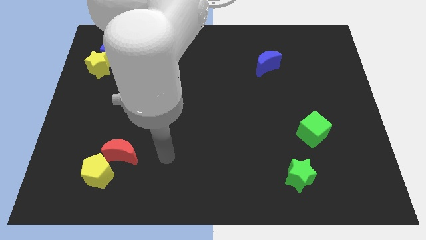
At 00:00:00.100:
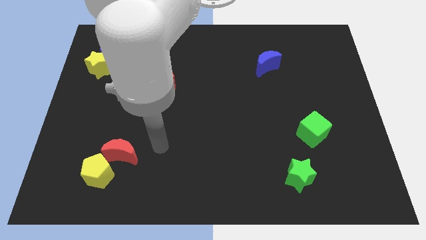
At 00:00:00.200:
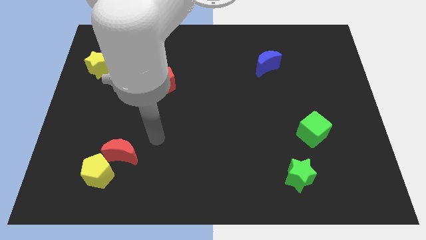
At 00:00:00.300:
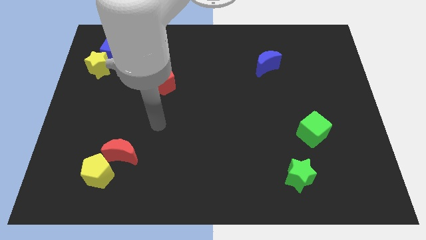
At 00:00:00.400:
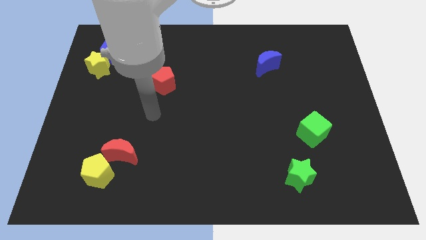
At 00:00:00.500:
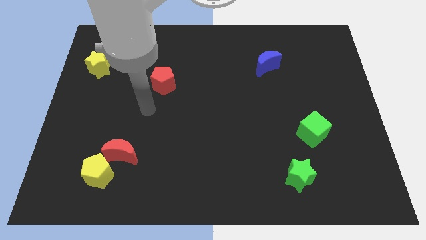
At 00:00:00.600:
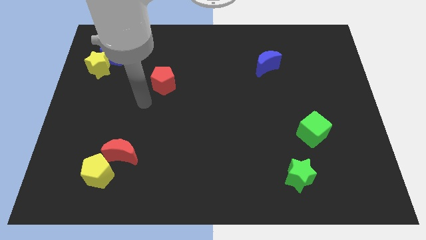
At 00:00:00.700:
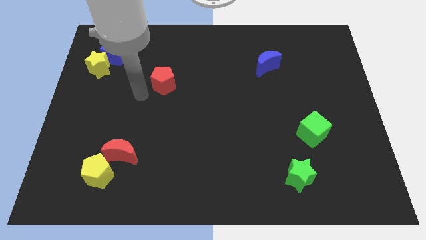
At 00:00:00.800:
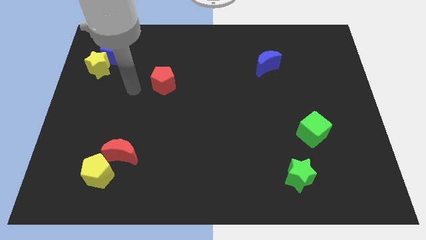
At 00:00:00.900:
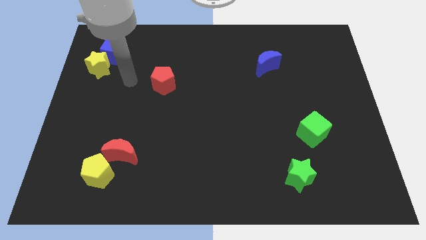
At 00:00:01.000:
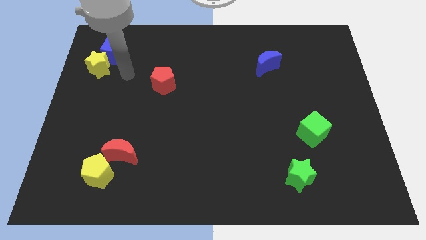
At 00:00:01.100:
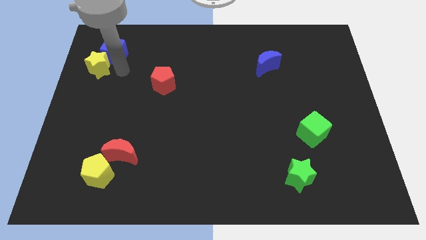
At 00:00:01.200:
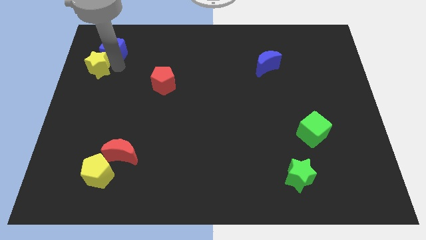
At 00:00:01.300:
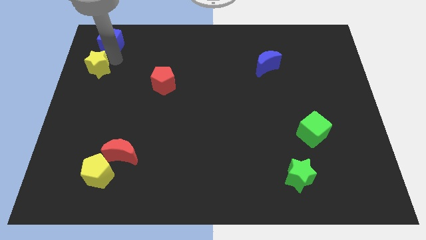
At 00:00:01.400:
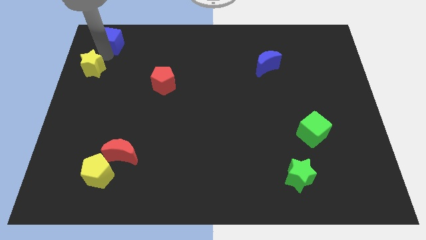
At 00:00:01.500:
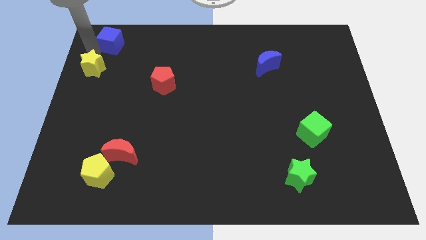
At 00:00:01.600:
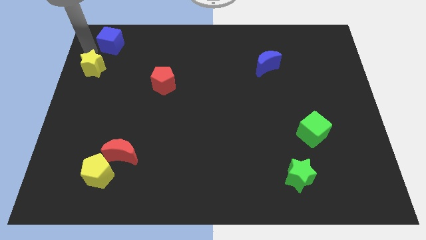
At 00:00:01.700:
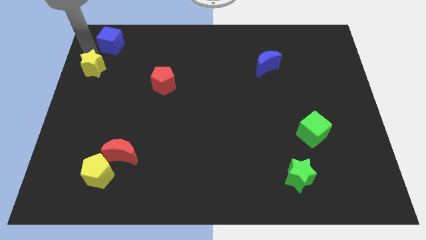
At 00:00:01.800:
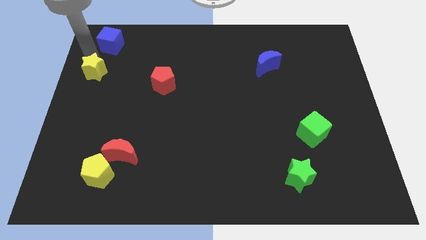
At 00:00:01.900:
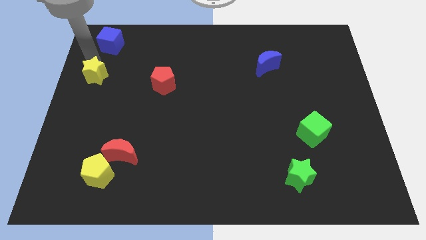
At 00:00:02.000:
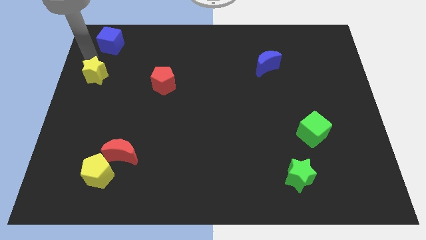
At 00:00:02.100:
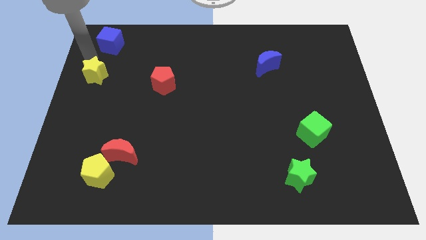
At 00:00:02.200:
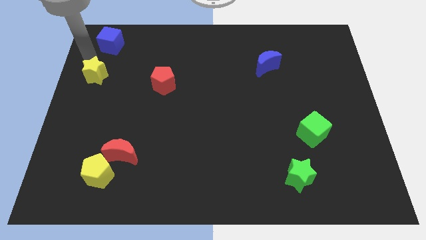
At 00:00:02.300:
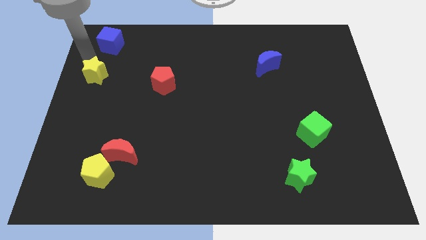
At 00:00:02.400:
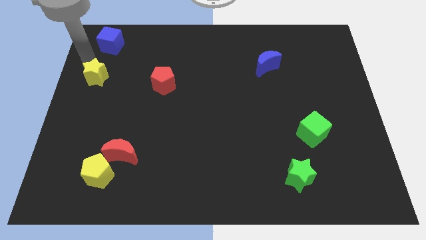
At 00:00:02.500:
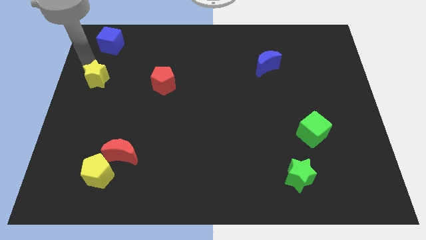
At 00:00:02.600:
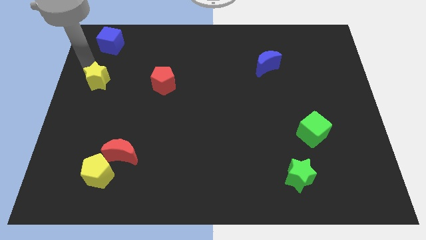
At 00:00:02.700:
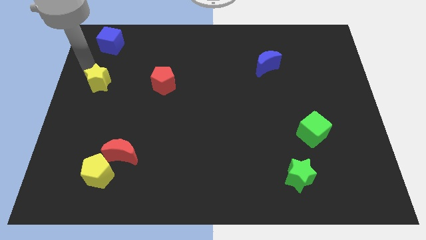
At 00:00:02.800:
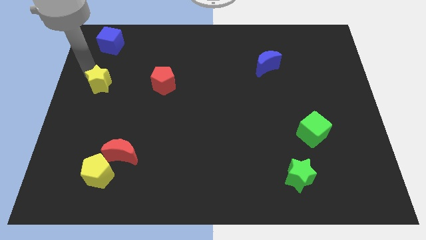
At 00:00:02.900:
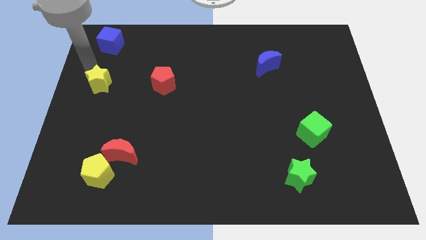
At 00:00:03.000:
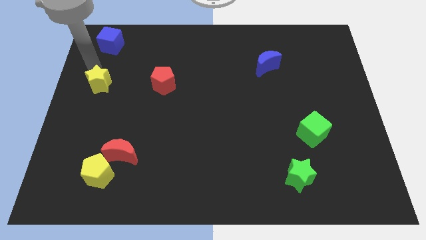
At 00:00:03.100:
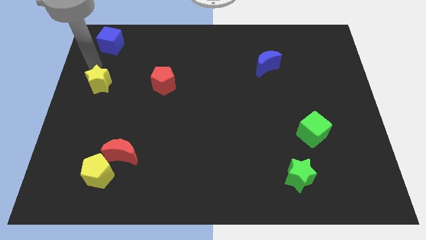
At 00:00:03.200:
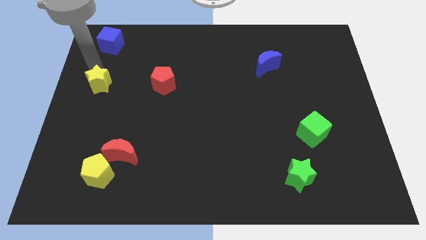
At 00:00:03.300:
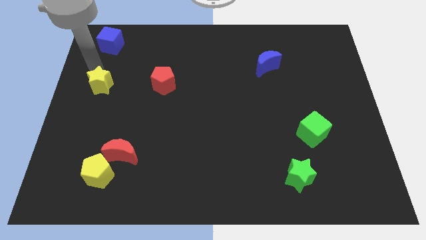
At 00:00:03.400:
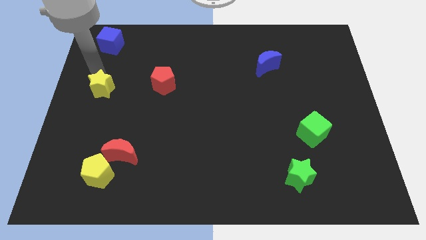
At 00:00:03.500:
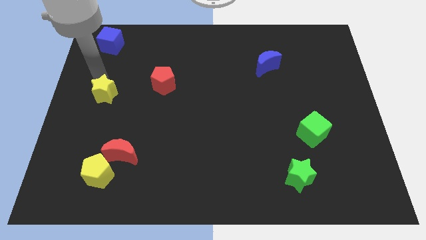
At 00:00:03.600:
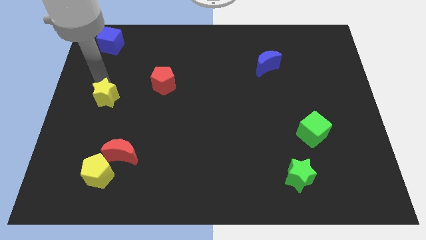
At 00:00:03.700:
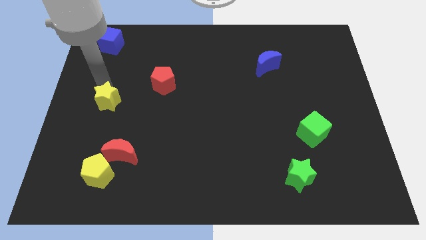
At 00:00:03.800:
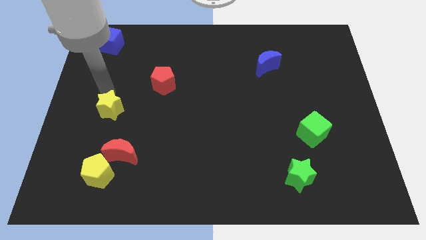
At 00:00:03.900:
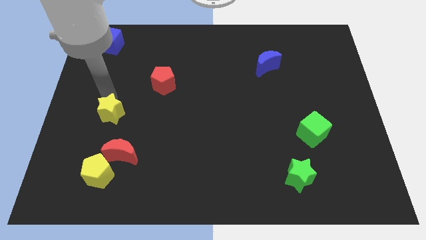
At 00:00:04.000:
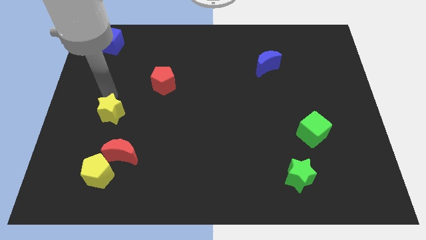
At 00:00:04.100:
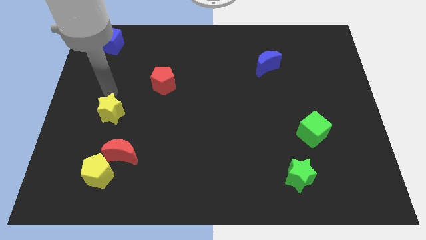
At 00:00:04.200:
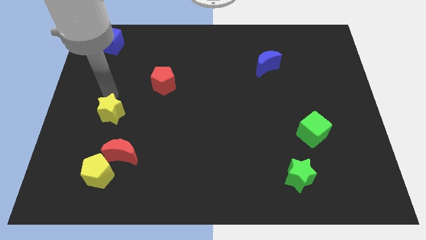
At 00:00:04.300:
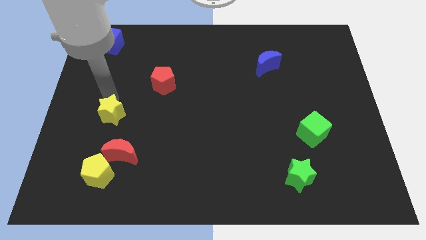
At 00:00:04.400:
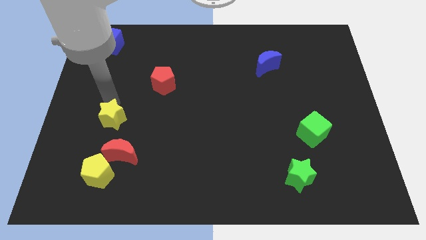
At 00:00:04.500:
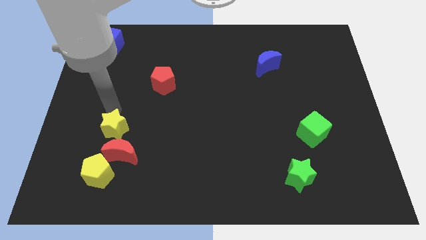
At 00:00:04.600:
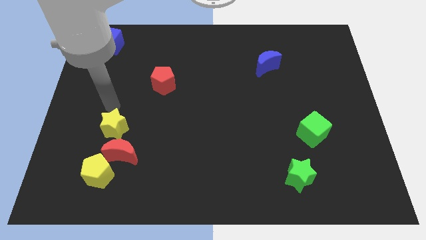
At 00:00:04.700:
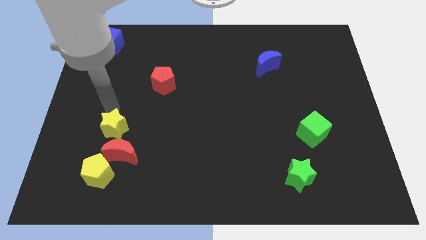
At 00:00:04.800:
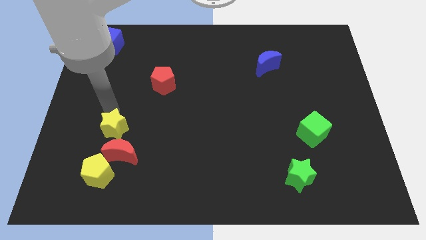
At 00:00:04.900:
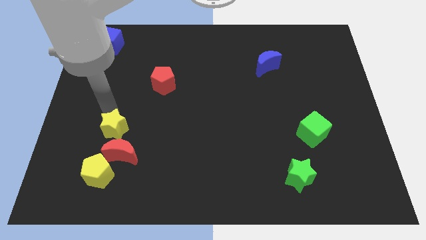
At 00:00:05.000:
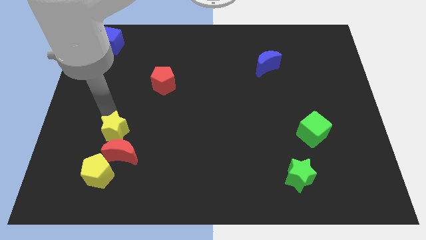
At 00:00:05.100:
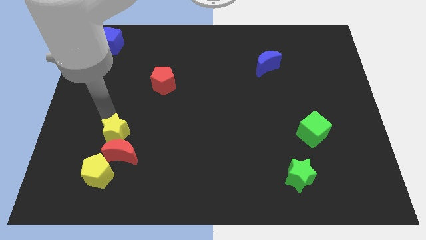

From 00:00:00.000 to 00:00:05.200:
push the yellow star to the red moon

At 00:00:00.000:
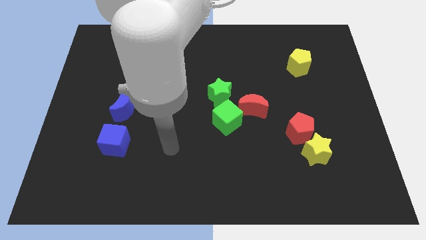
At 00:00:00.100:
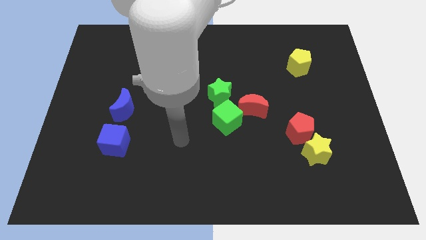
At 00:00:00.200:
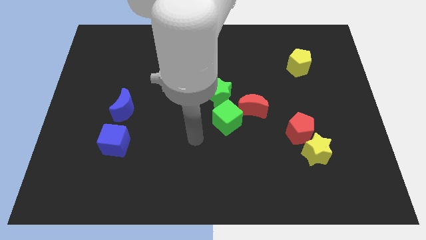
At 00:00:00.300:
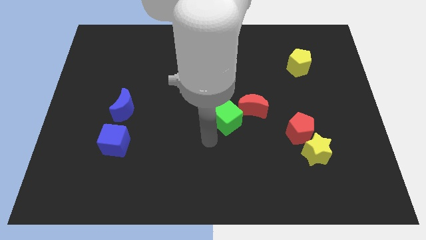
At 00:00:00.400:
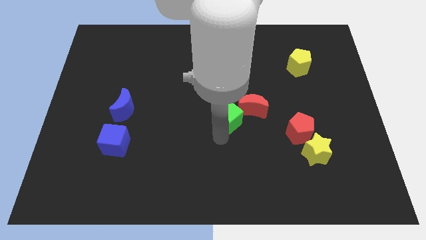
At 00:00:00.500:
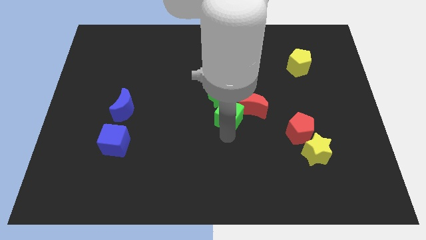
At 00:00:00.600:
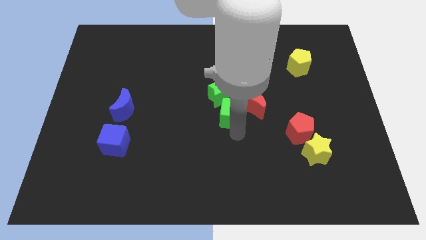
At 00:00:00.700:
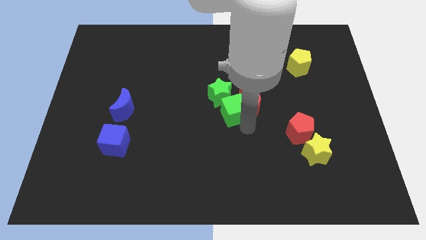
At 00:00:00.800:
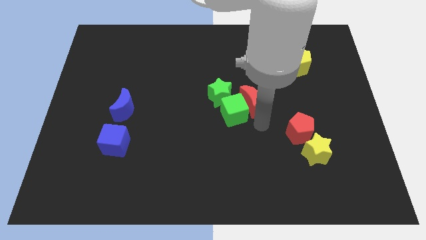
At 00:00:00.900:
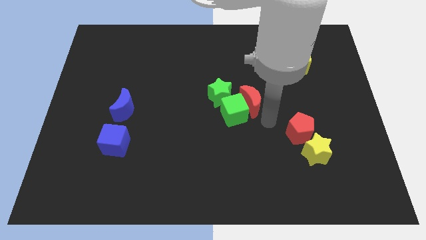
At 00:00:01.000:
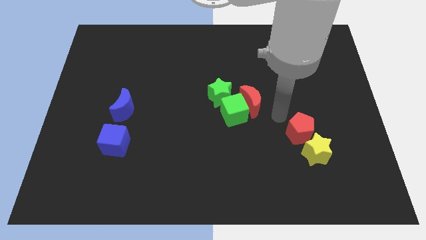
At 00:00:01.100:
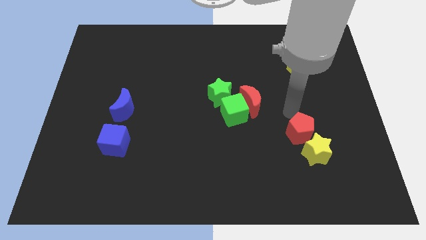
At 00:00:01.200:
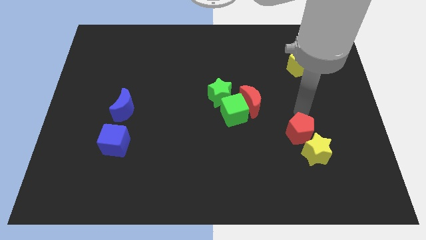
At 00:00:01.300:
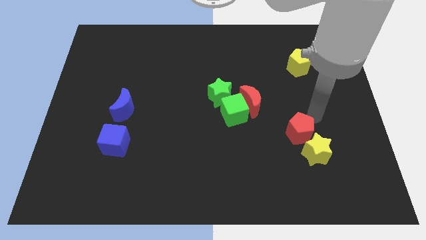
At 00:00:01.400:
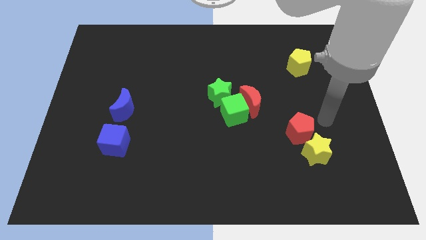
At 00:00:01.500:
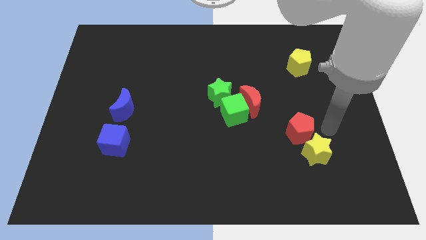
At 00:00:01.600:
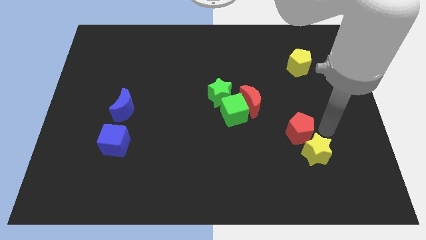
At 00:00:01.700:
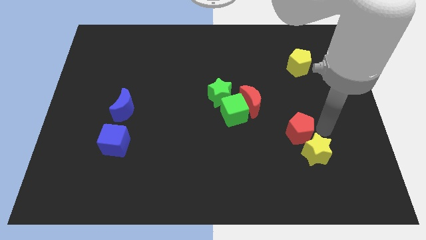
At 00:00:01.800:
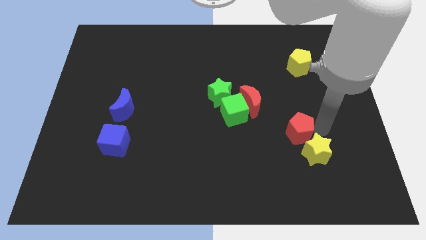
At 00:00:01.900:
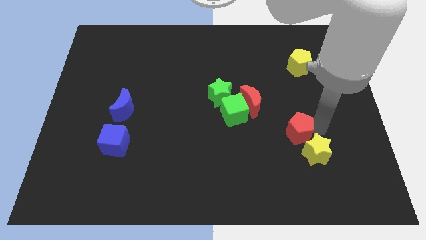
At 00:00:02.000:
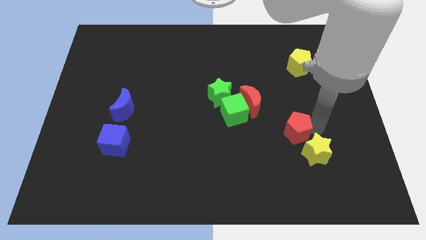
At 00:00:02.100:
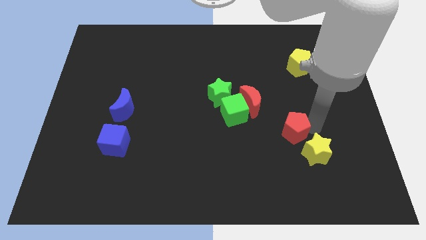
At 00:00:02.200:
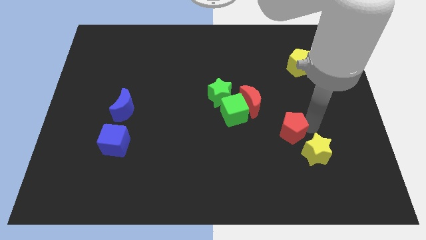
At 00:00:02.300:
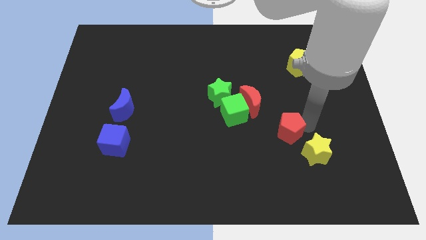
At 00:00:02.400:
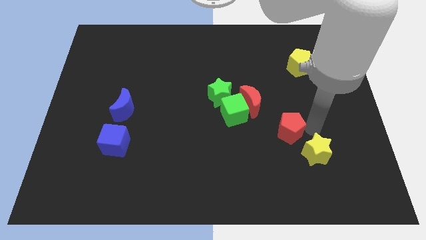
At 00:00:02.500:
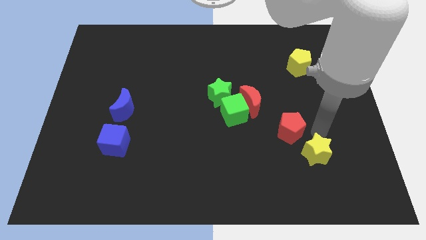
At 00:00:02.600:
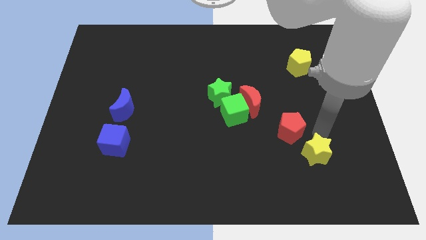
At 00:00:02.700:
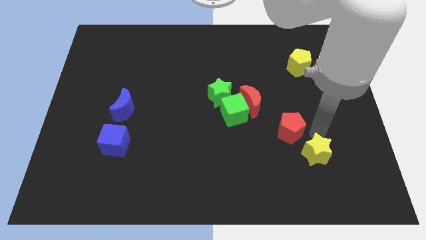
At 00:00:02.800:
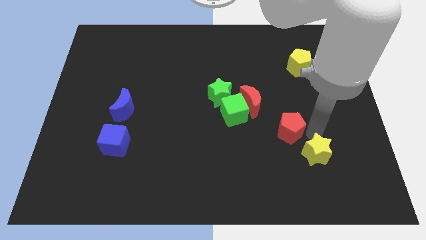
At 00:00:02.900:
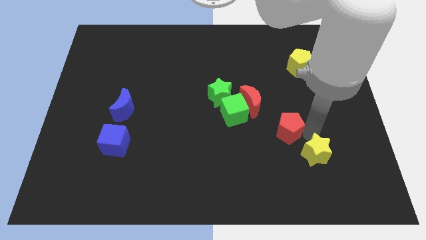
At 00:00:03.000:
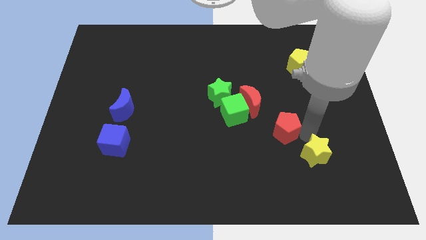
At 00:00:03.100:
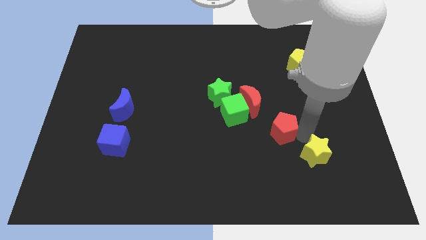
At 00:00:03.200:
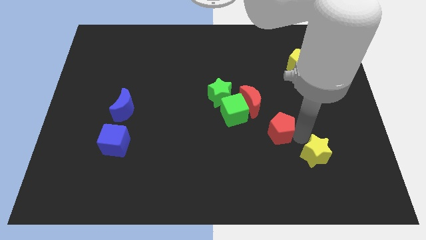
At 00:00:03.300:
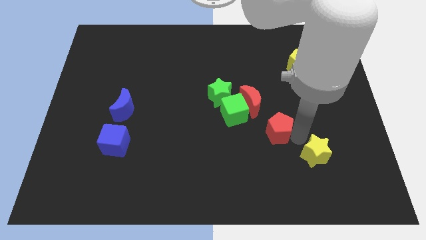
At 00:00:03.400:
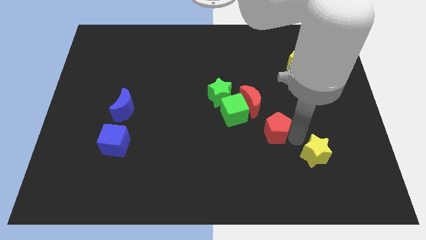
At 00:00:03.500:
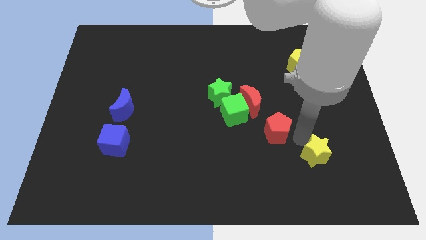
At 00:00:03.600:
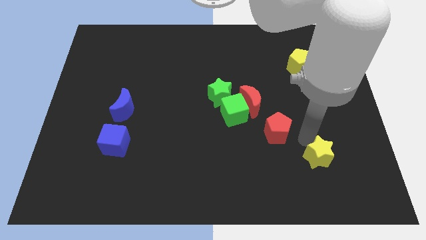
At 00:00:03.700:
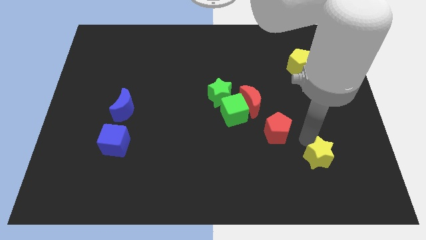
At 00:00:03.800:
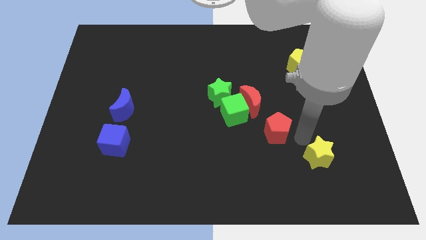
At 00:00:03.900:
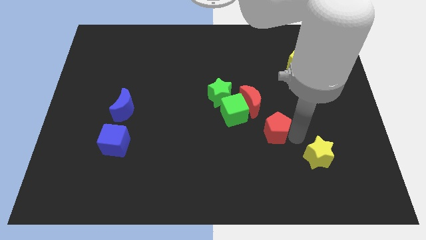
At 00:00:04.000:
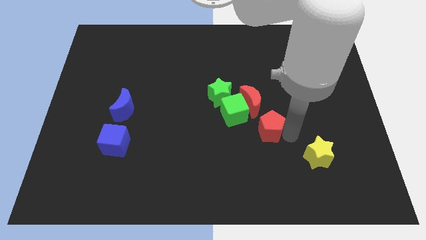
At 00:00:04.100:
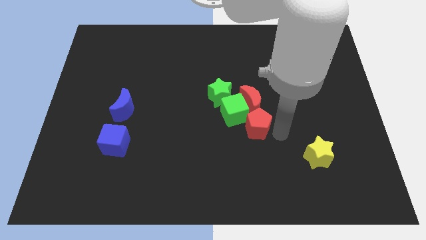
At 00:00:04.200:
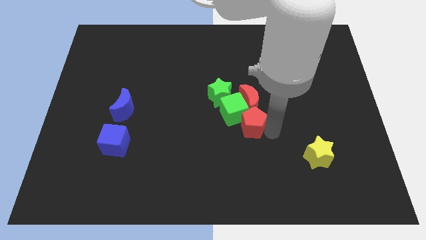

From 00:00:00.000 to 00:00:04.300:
put the red pentagon towards the green cube
